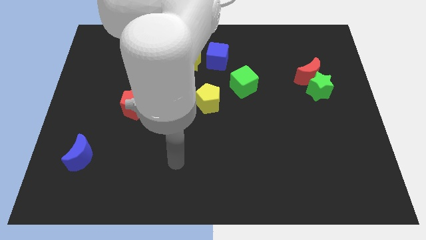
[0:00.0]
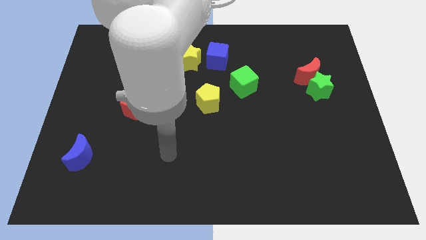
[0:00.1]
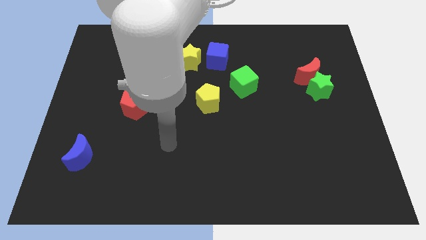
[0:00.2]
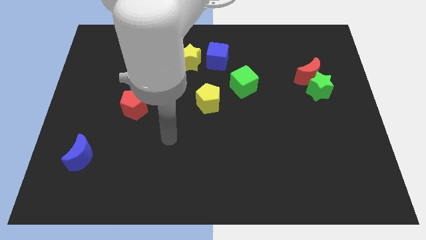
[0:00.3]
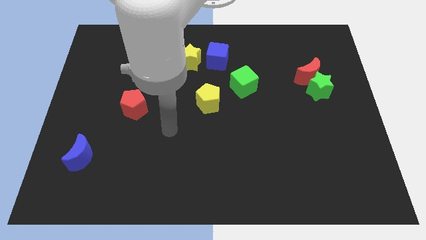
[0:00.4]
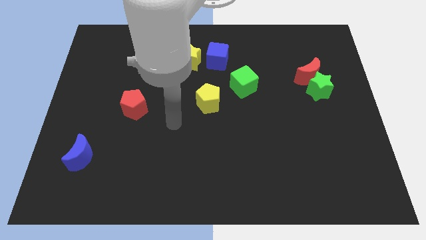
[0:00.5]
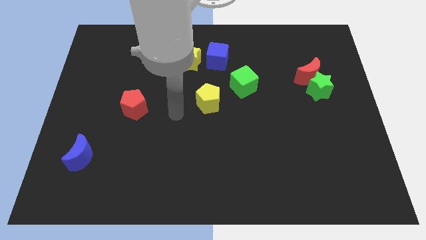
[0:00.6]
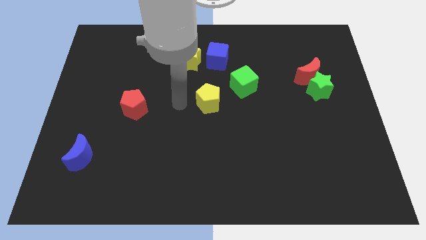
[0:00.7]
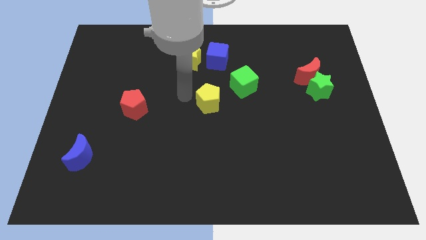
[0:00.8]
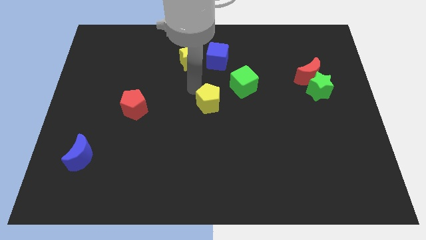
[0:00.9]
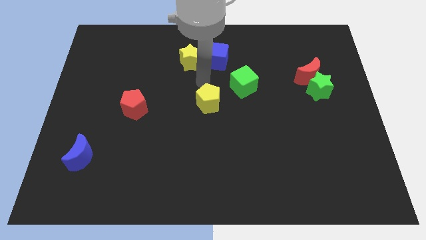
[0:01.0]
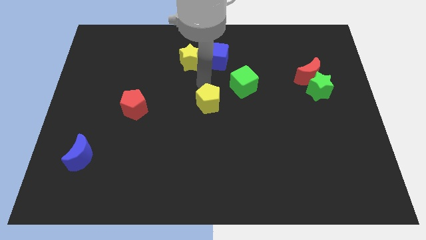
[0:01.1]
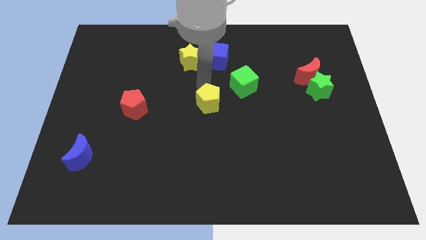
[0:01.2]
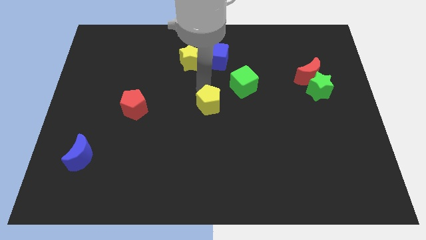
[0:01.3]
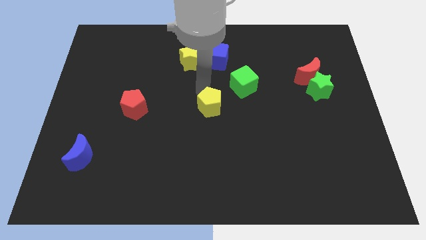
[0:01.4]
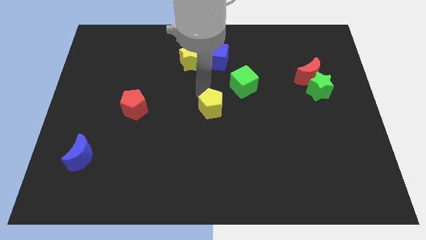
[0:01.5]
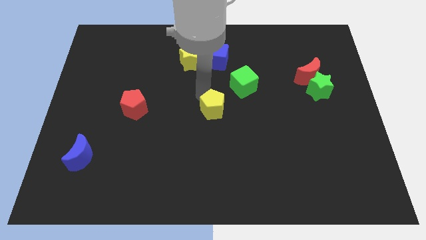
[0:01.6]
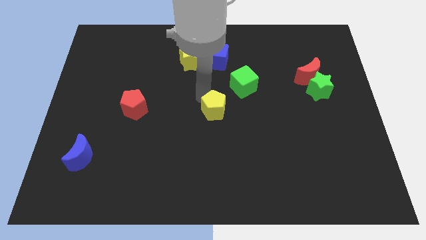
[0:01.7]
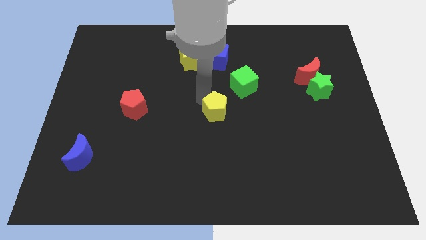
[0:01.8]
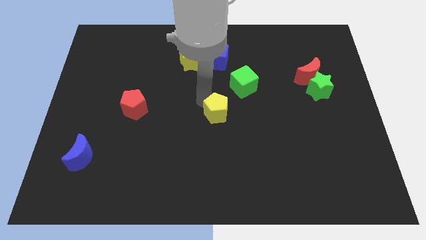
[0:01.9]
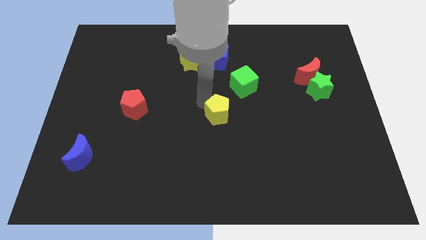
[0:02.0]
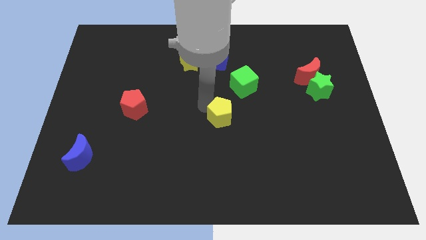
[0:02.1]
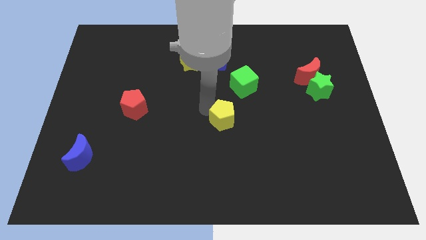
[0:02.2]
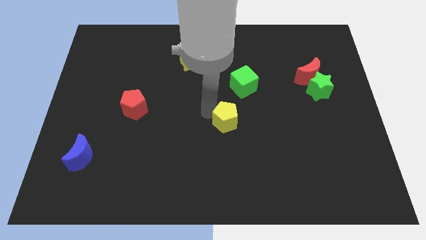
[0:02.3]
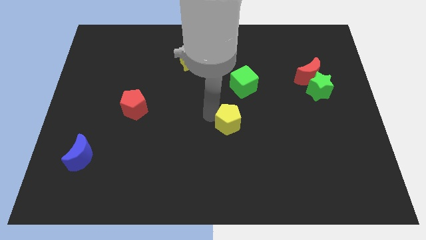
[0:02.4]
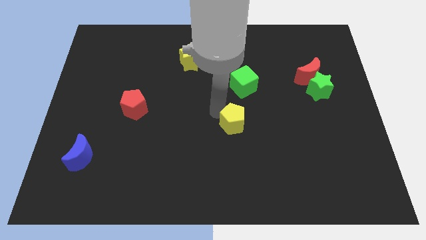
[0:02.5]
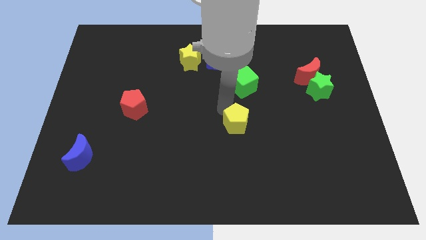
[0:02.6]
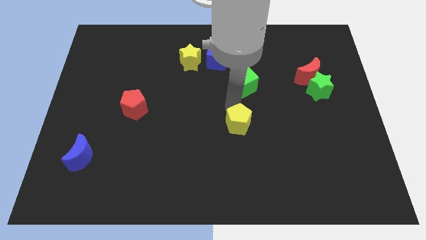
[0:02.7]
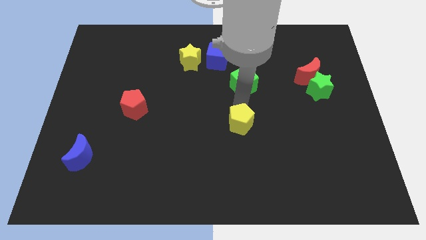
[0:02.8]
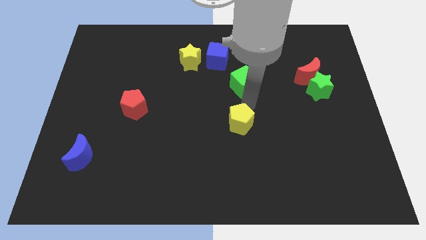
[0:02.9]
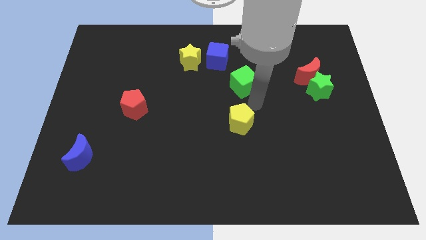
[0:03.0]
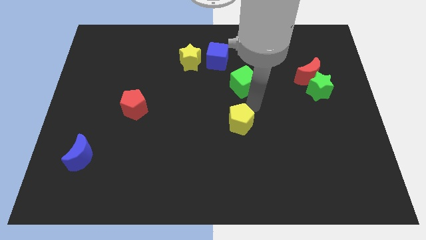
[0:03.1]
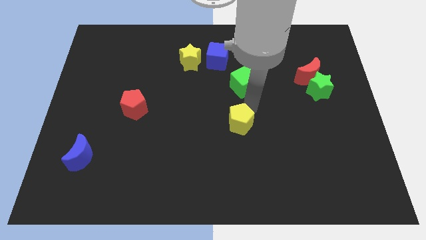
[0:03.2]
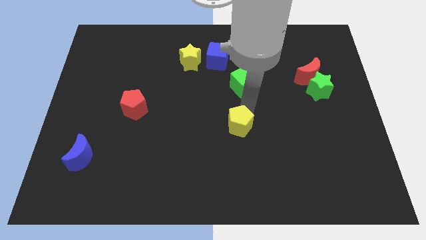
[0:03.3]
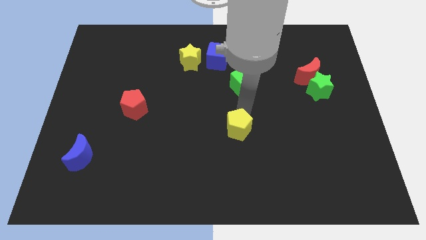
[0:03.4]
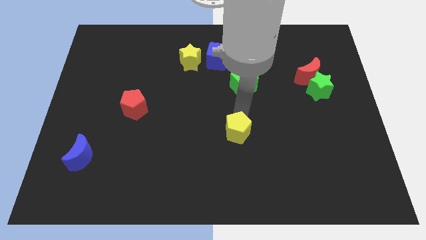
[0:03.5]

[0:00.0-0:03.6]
slightly move the yellow pentagon down

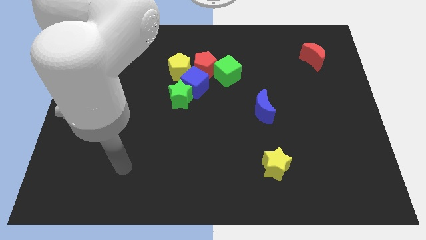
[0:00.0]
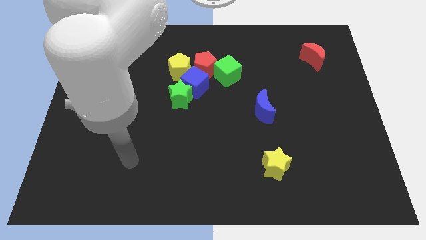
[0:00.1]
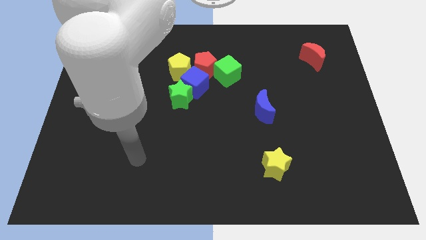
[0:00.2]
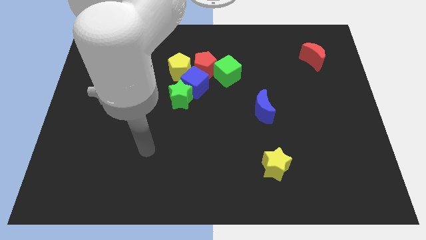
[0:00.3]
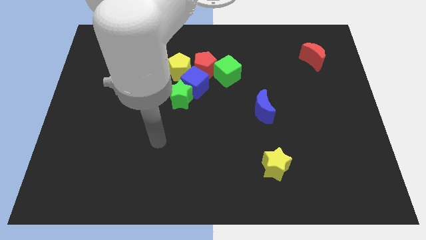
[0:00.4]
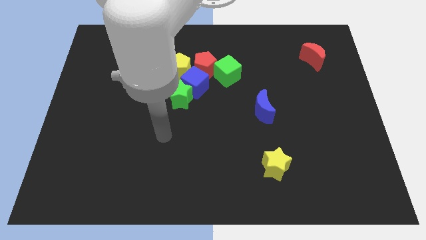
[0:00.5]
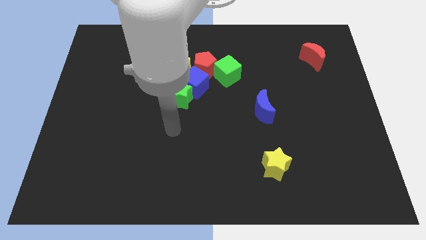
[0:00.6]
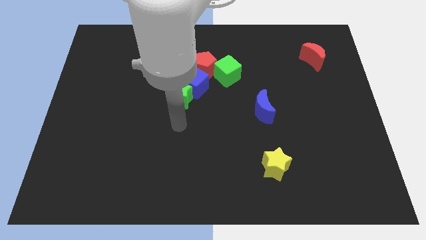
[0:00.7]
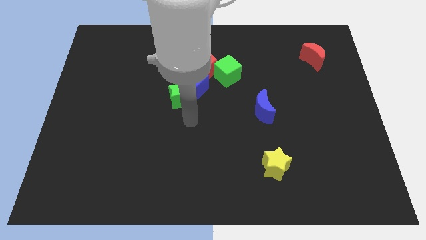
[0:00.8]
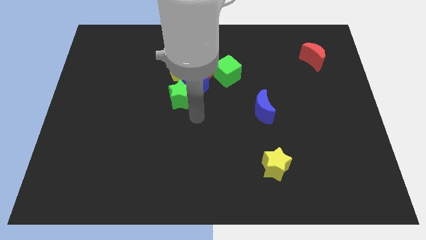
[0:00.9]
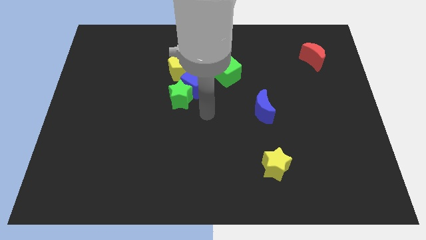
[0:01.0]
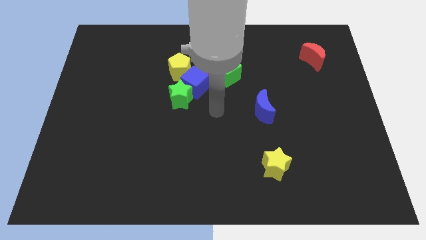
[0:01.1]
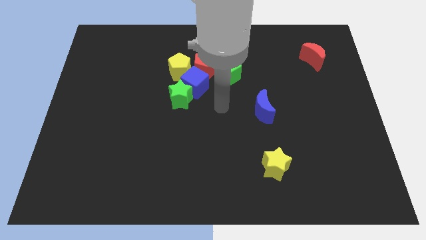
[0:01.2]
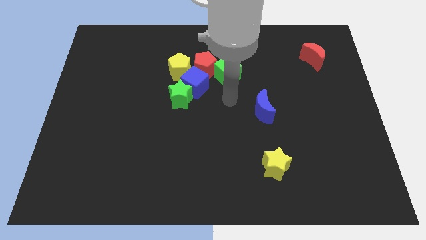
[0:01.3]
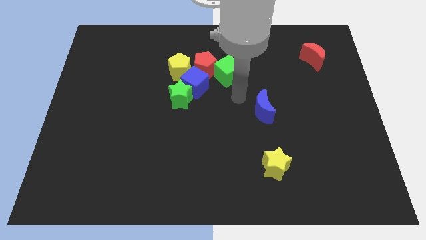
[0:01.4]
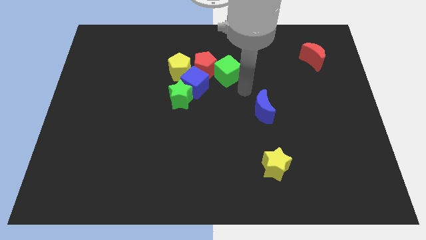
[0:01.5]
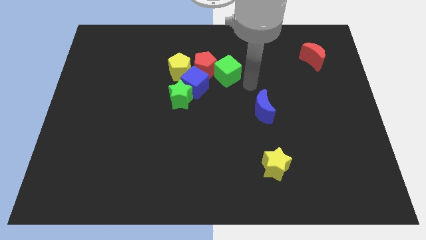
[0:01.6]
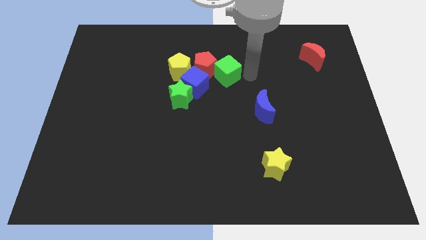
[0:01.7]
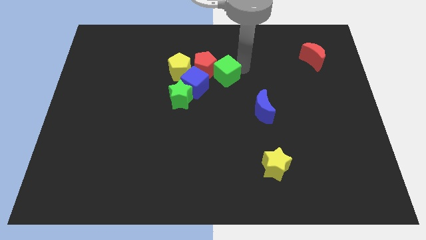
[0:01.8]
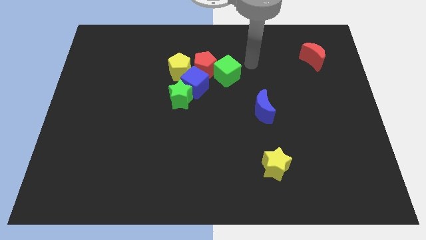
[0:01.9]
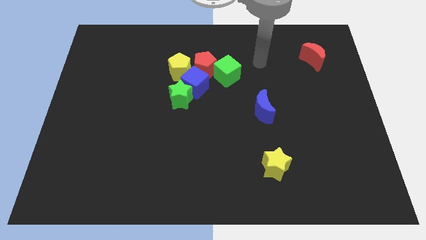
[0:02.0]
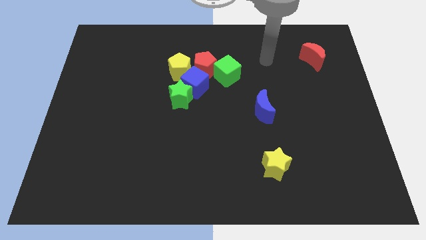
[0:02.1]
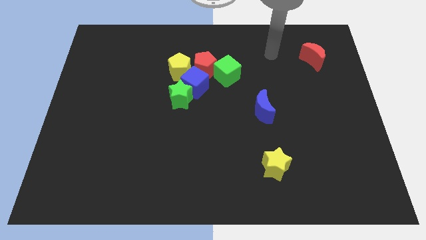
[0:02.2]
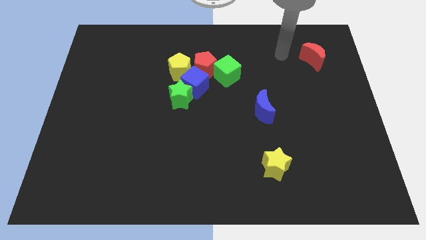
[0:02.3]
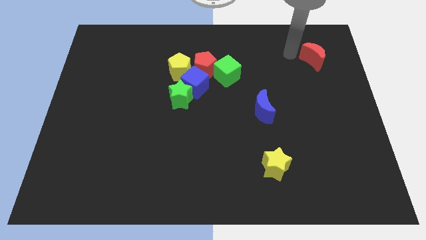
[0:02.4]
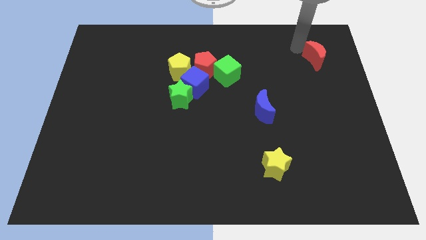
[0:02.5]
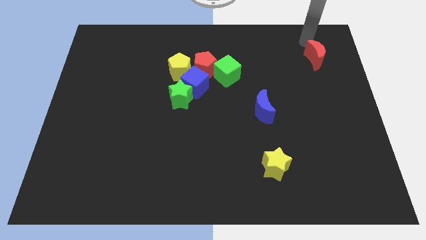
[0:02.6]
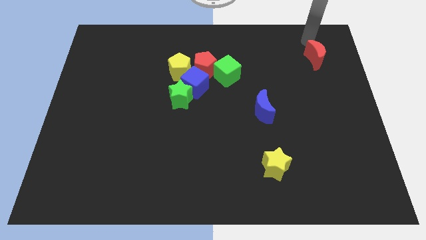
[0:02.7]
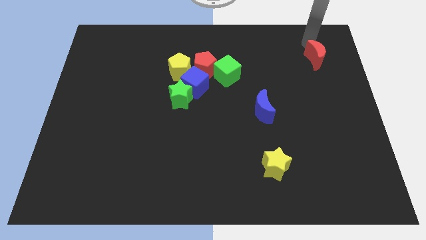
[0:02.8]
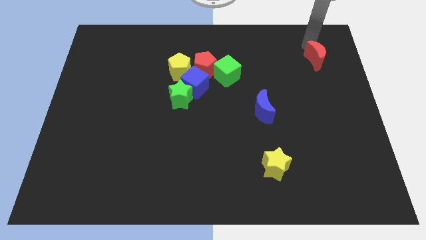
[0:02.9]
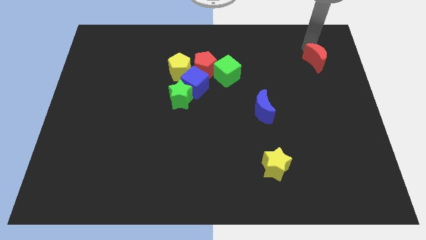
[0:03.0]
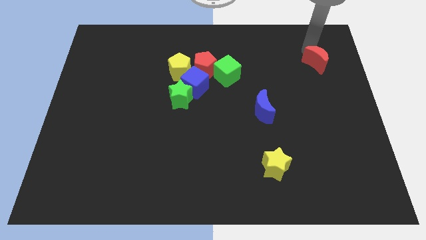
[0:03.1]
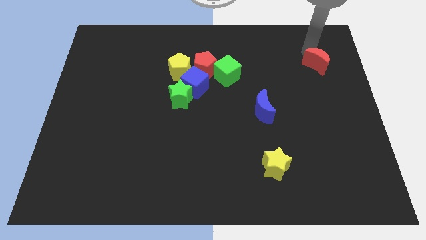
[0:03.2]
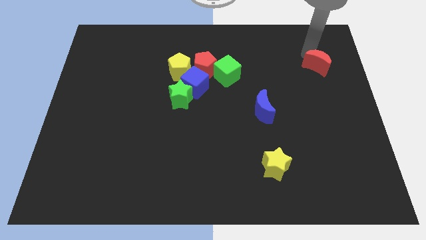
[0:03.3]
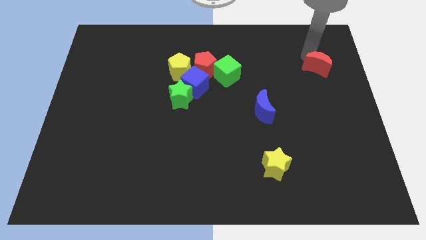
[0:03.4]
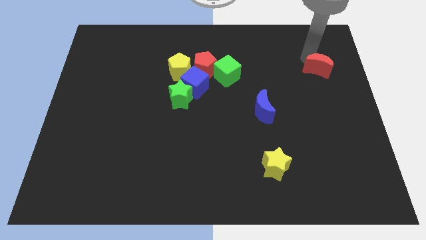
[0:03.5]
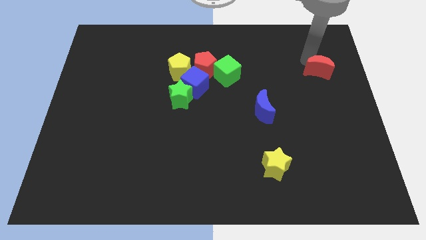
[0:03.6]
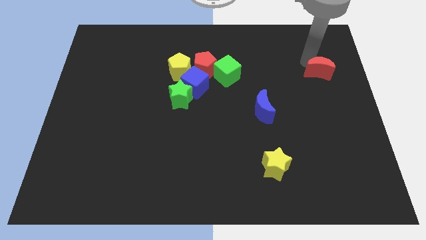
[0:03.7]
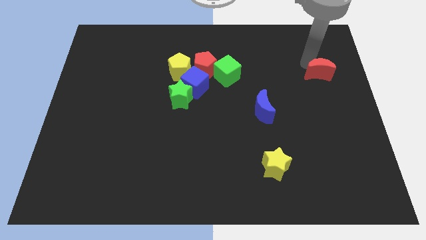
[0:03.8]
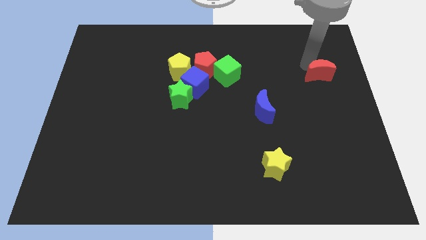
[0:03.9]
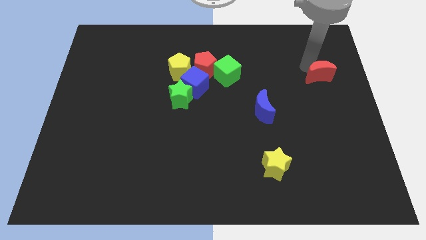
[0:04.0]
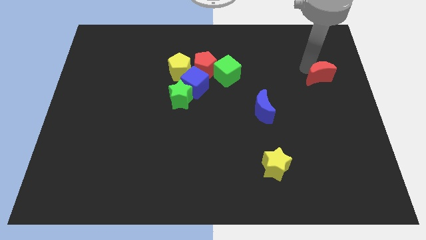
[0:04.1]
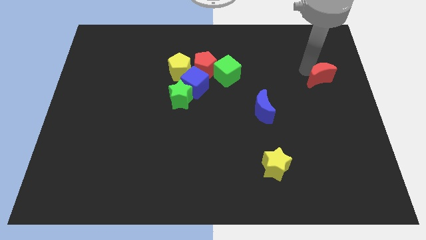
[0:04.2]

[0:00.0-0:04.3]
slide the red moon down a bit
